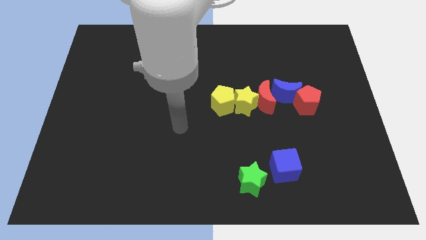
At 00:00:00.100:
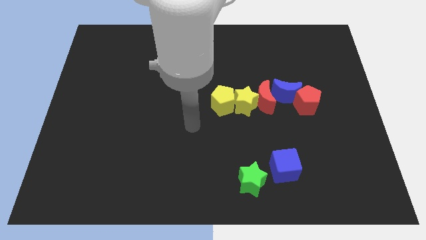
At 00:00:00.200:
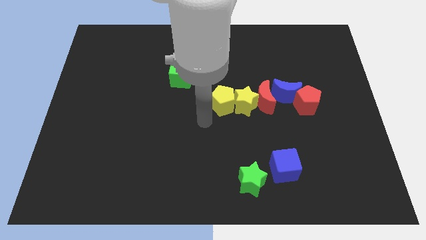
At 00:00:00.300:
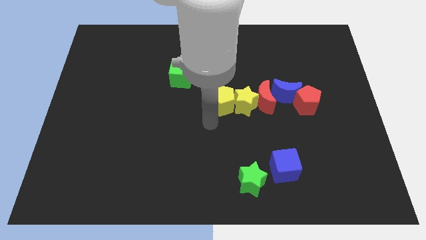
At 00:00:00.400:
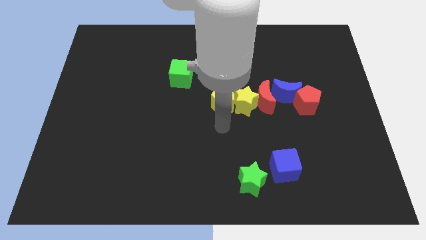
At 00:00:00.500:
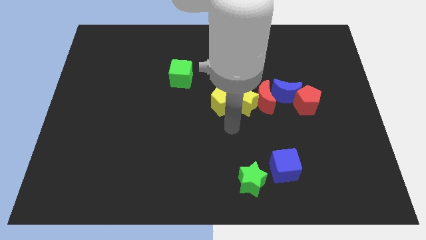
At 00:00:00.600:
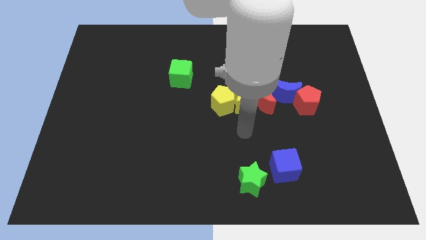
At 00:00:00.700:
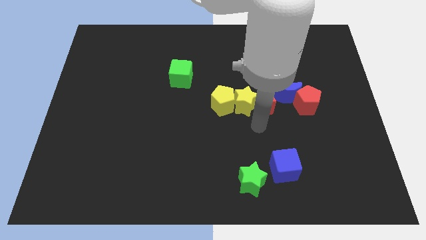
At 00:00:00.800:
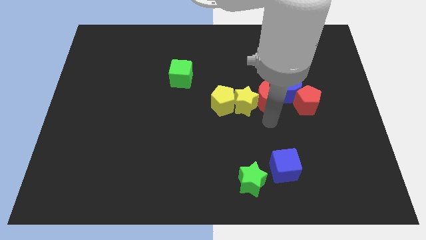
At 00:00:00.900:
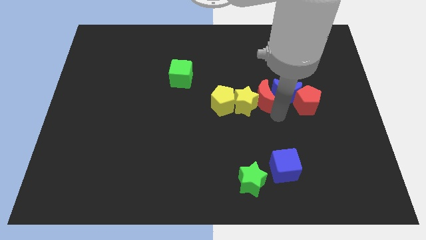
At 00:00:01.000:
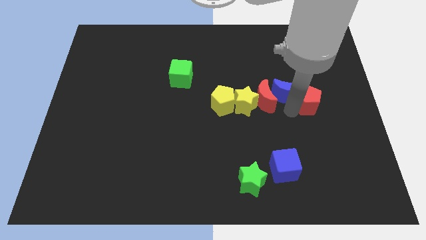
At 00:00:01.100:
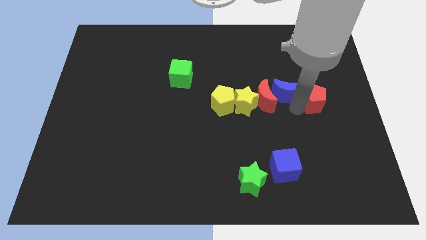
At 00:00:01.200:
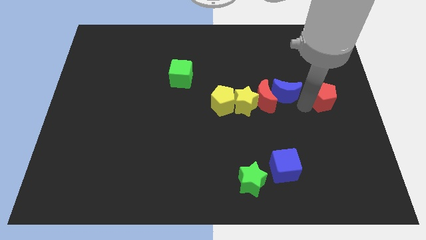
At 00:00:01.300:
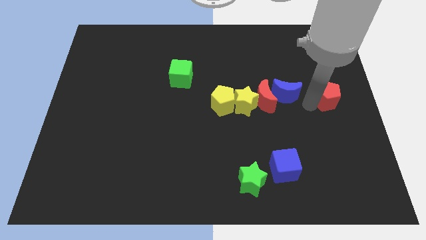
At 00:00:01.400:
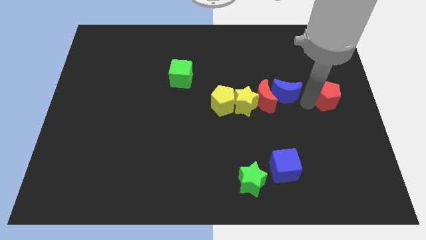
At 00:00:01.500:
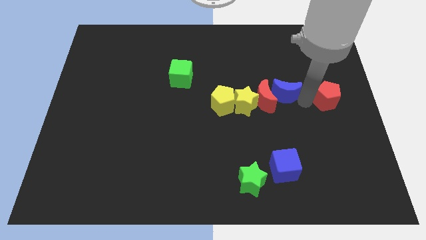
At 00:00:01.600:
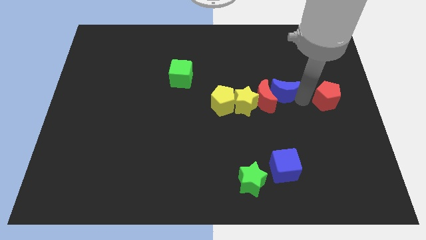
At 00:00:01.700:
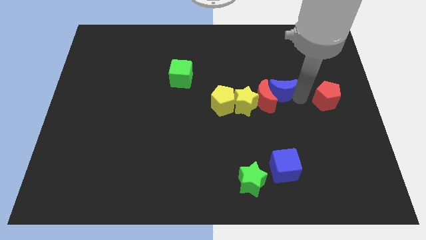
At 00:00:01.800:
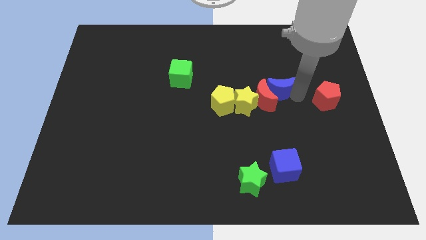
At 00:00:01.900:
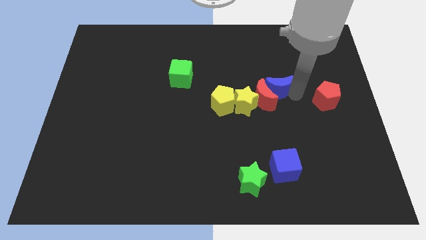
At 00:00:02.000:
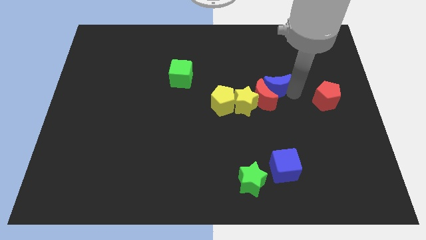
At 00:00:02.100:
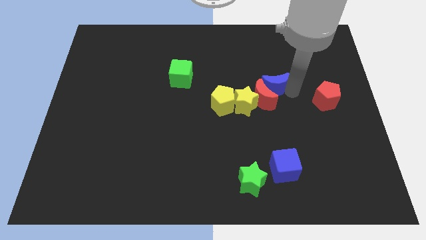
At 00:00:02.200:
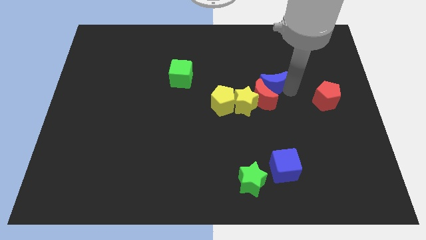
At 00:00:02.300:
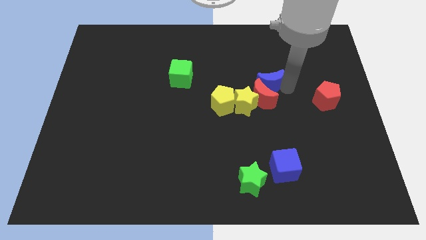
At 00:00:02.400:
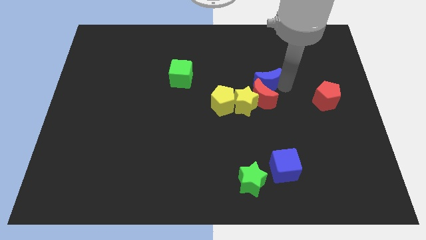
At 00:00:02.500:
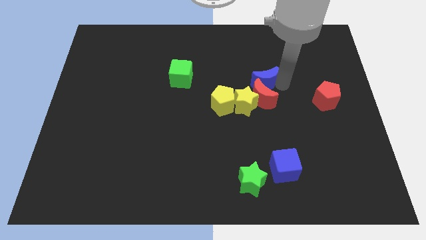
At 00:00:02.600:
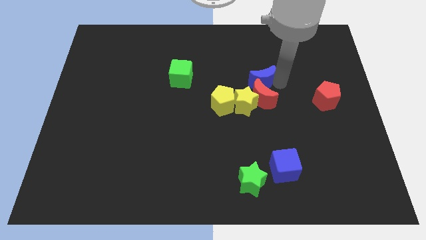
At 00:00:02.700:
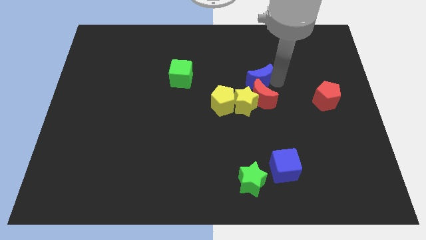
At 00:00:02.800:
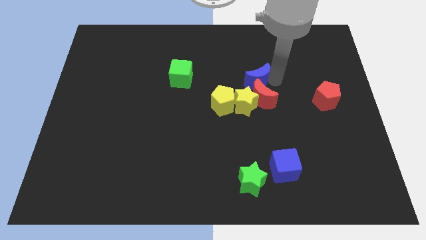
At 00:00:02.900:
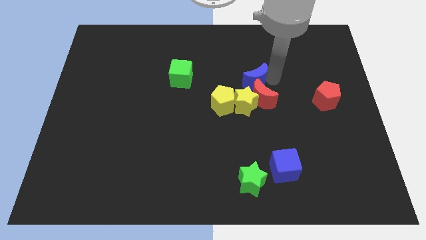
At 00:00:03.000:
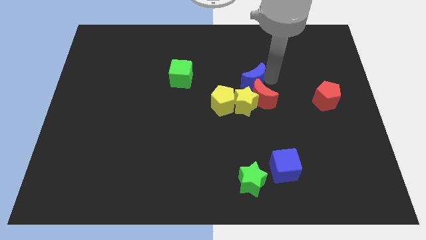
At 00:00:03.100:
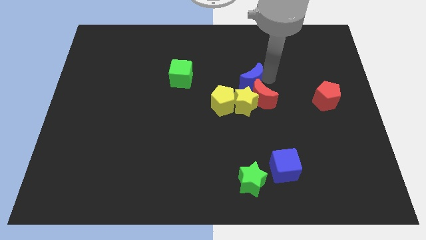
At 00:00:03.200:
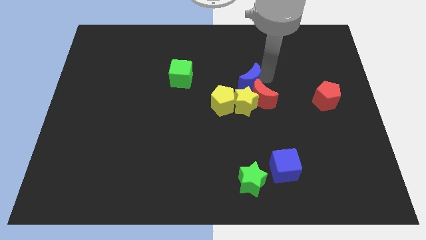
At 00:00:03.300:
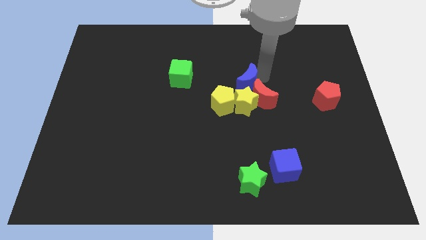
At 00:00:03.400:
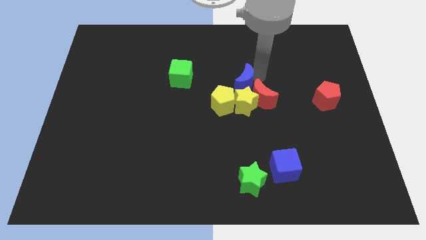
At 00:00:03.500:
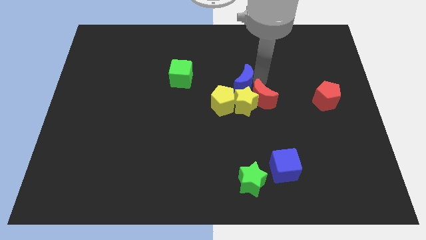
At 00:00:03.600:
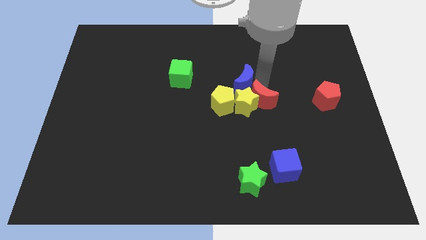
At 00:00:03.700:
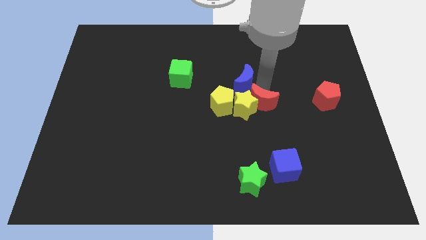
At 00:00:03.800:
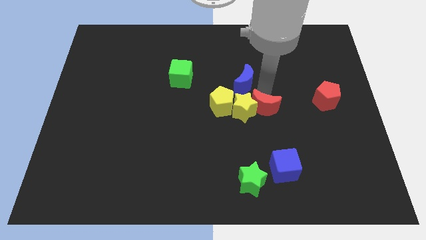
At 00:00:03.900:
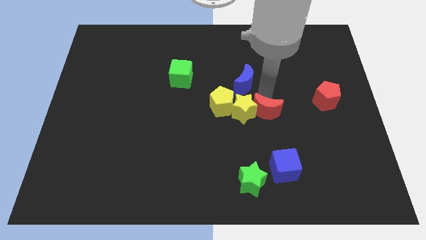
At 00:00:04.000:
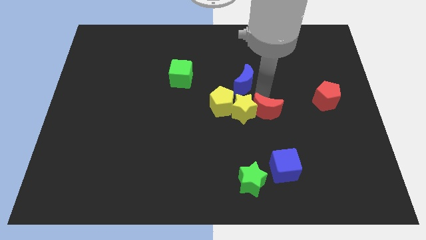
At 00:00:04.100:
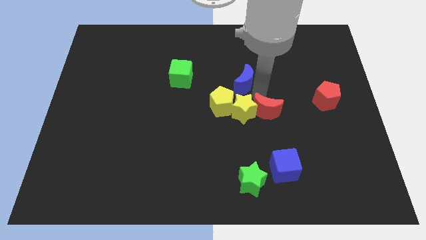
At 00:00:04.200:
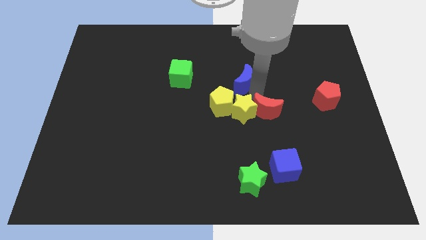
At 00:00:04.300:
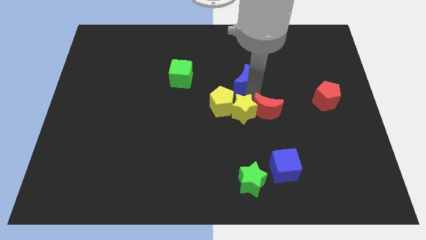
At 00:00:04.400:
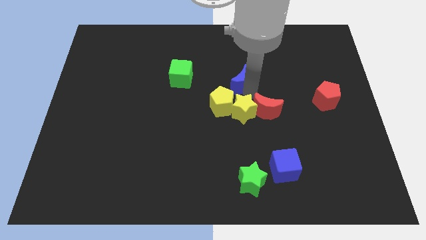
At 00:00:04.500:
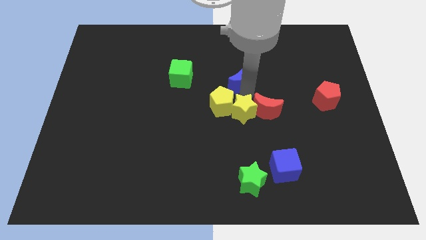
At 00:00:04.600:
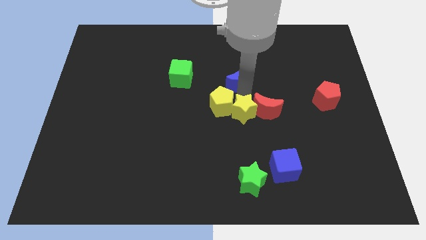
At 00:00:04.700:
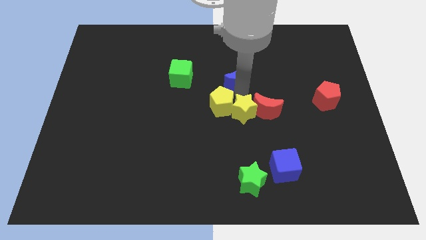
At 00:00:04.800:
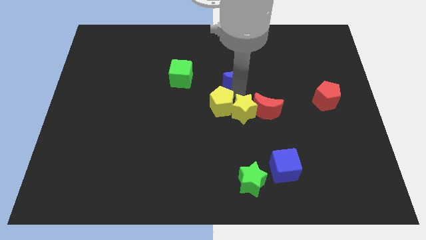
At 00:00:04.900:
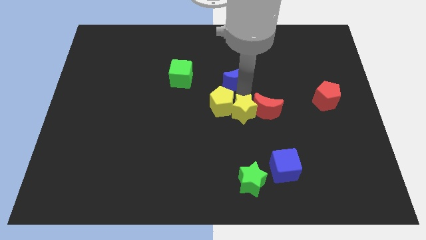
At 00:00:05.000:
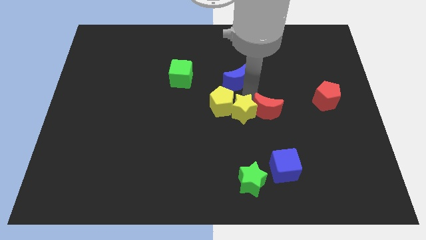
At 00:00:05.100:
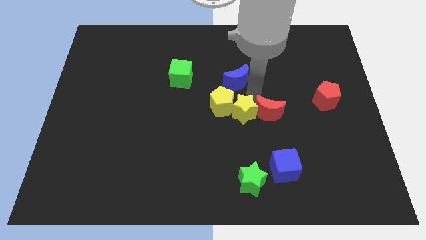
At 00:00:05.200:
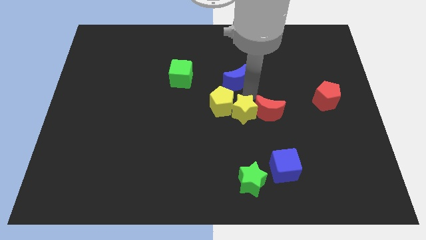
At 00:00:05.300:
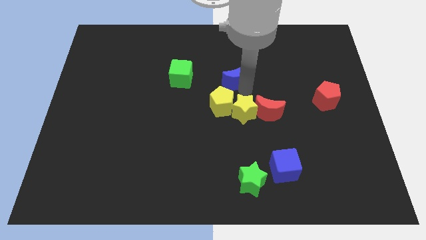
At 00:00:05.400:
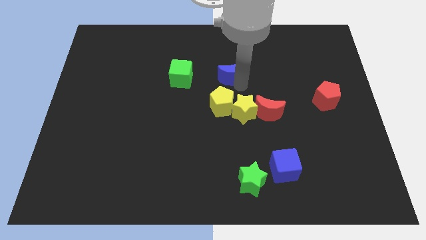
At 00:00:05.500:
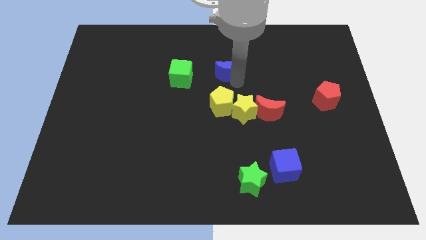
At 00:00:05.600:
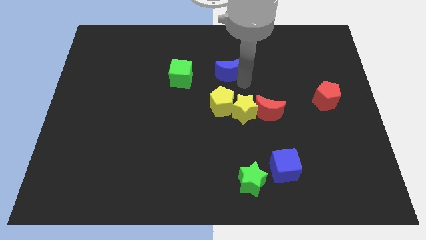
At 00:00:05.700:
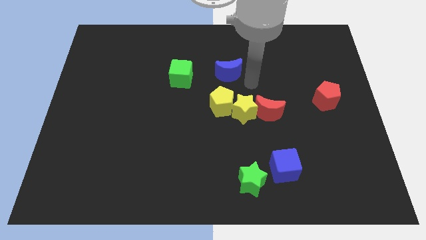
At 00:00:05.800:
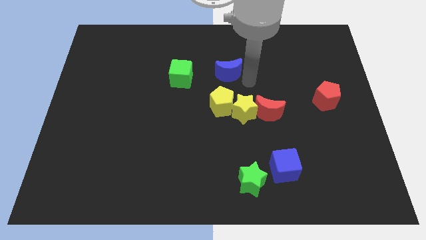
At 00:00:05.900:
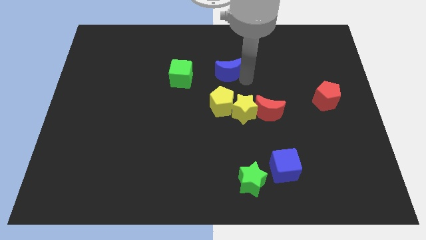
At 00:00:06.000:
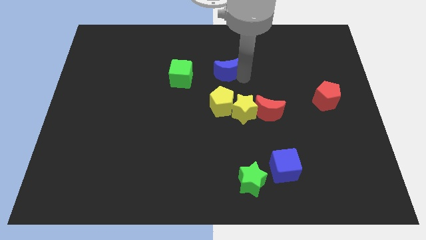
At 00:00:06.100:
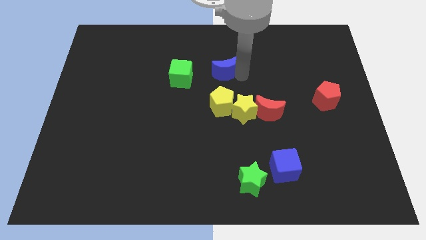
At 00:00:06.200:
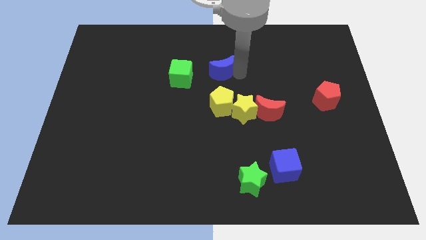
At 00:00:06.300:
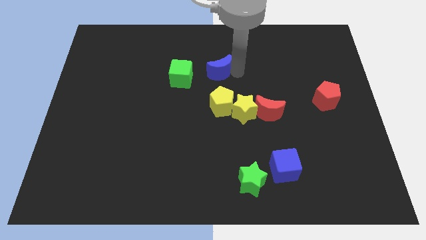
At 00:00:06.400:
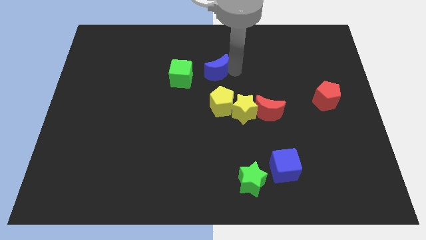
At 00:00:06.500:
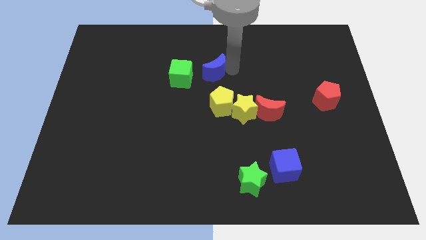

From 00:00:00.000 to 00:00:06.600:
push the blue moon to the top right of the green cube

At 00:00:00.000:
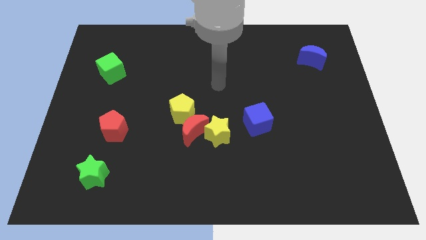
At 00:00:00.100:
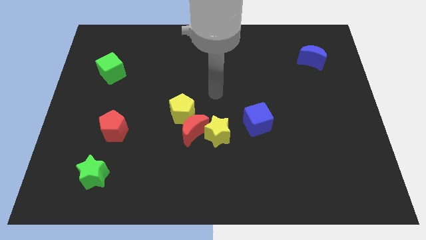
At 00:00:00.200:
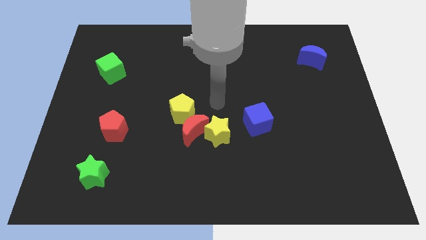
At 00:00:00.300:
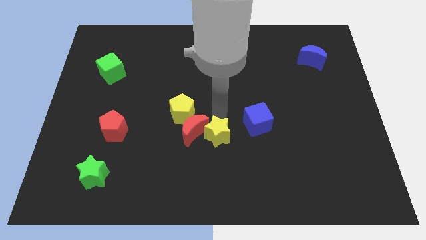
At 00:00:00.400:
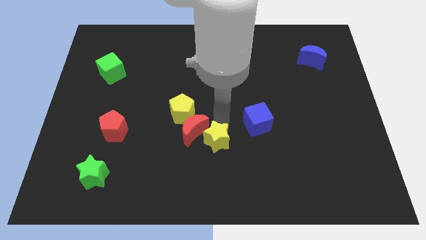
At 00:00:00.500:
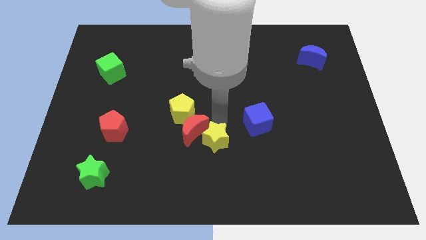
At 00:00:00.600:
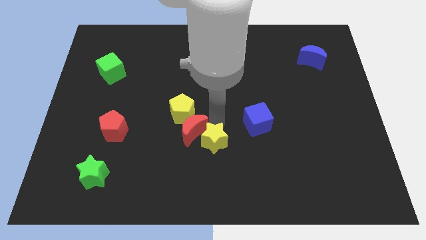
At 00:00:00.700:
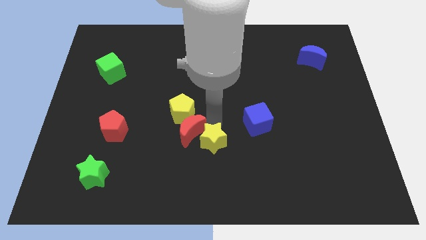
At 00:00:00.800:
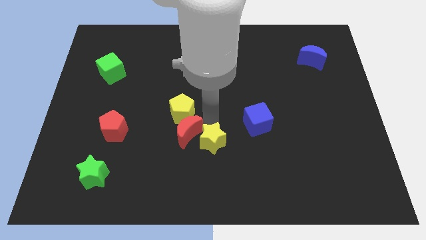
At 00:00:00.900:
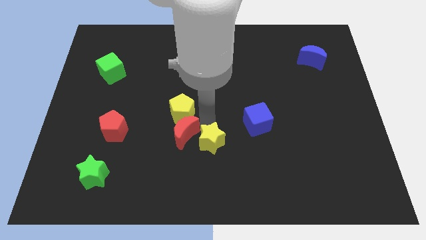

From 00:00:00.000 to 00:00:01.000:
push the red moon right of the red pentagon
